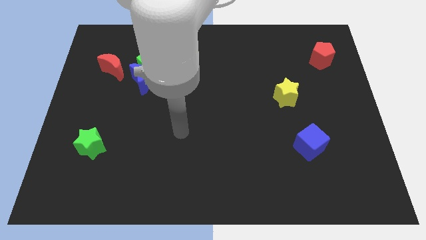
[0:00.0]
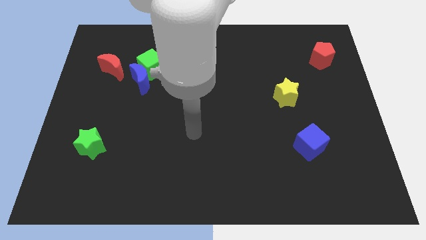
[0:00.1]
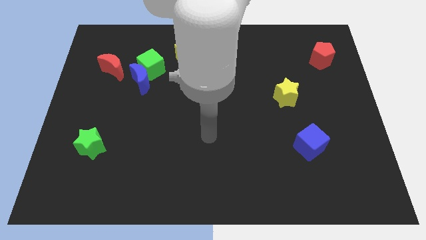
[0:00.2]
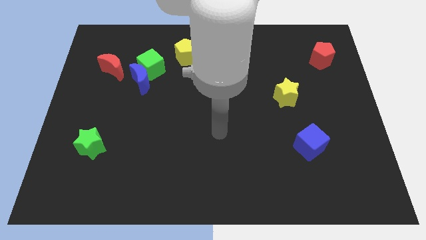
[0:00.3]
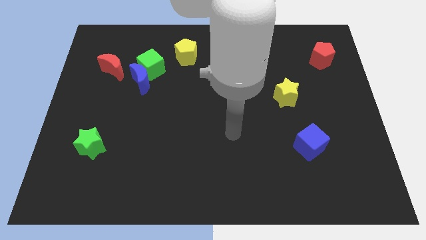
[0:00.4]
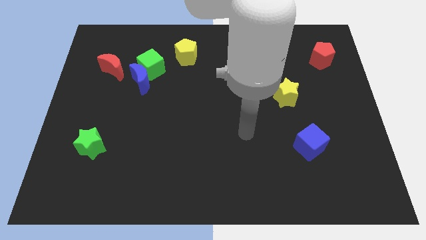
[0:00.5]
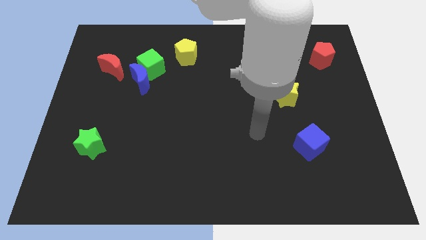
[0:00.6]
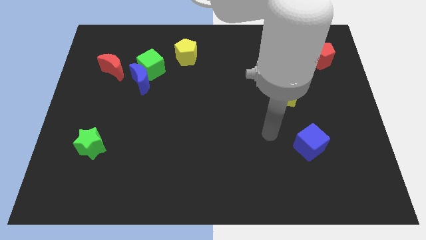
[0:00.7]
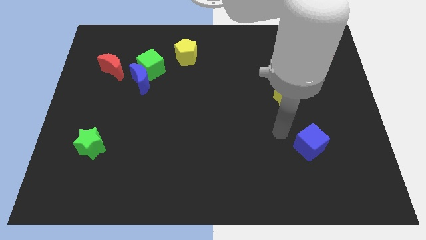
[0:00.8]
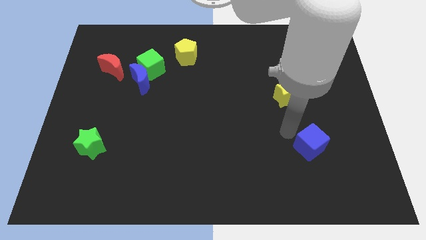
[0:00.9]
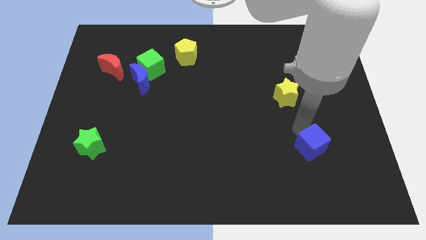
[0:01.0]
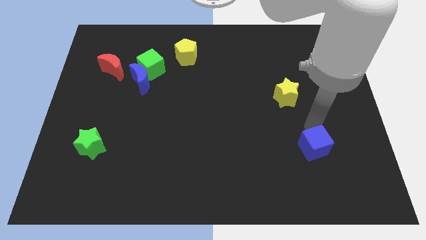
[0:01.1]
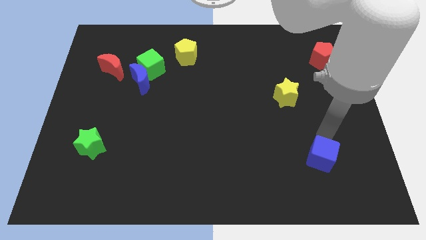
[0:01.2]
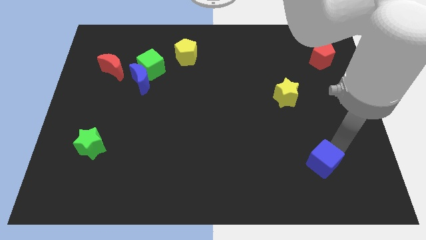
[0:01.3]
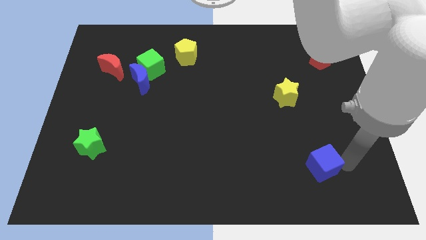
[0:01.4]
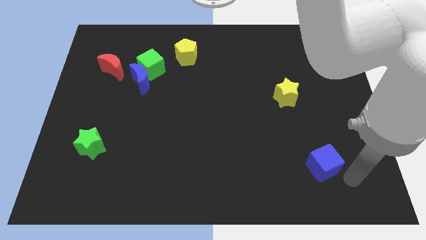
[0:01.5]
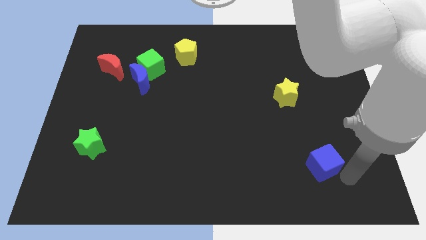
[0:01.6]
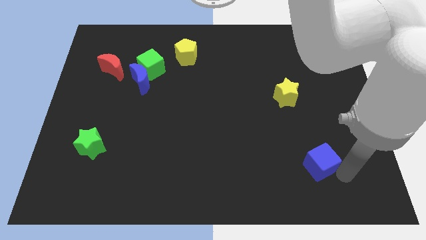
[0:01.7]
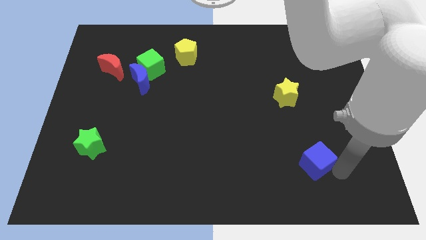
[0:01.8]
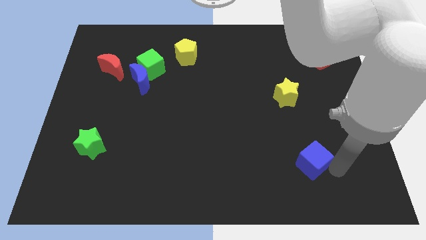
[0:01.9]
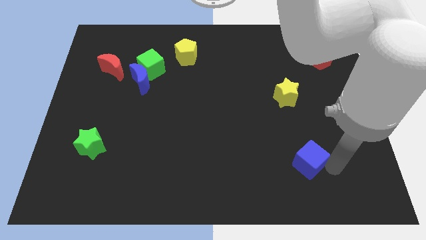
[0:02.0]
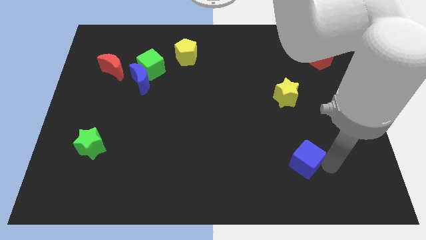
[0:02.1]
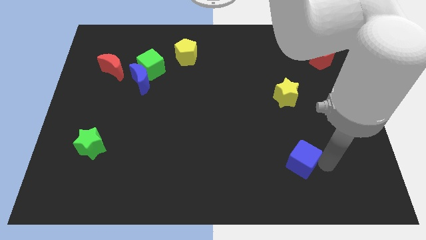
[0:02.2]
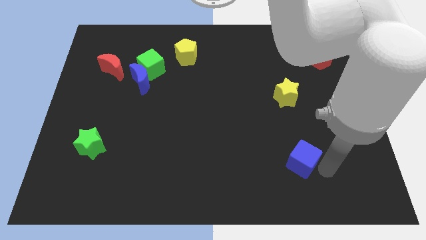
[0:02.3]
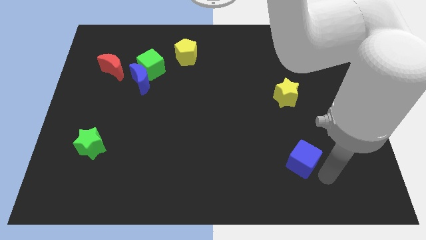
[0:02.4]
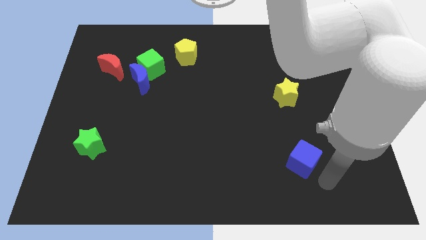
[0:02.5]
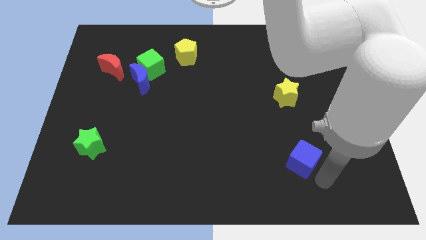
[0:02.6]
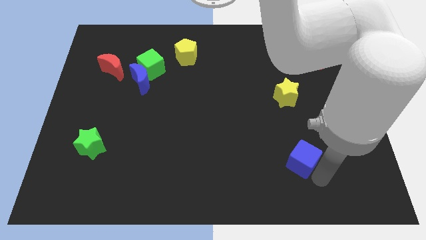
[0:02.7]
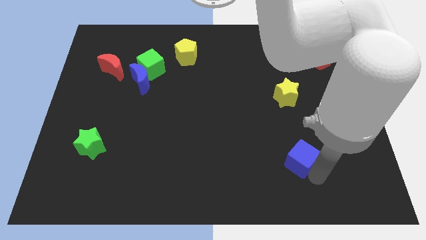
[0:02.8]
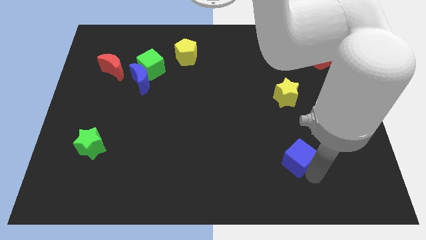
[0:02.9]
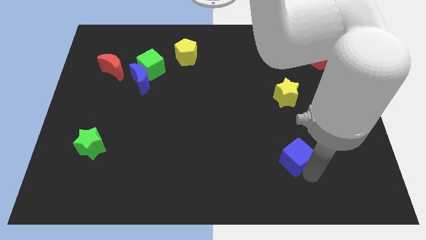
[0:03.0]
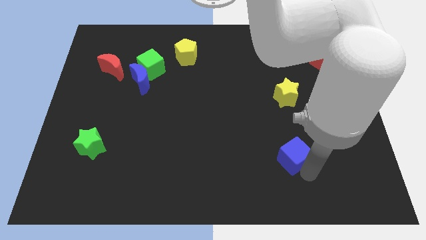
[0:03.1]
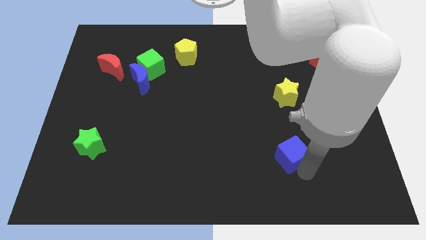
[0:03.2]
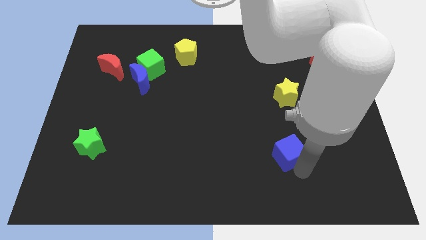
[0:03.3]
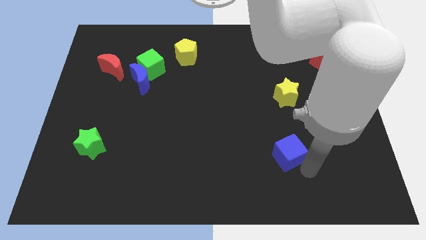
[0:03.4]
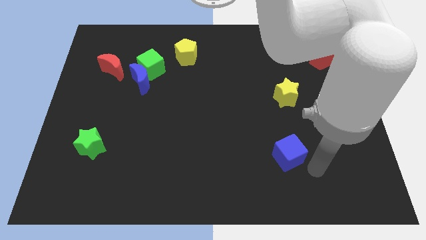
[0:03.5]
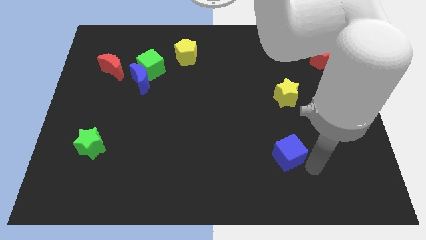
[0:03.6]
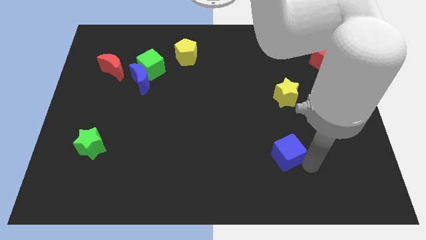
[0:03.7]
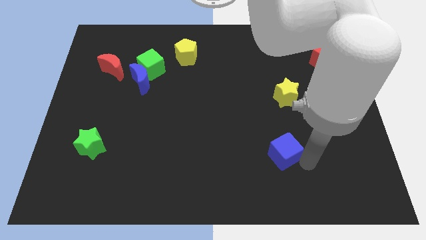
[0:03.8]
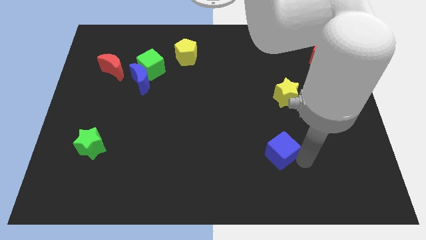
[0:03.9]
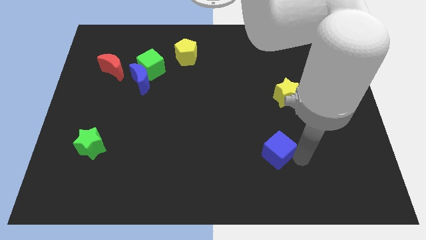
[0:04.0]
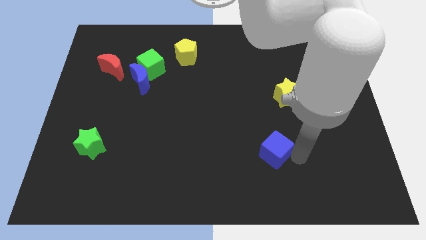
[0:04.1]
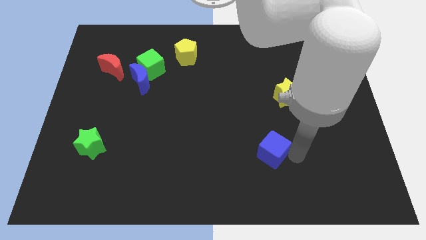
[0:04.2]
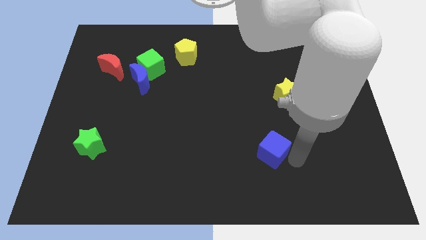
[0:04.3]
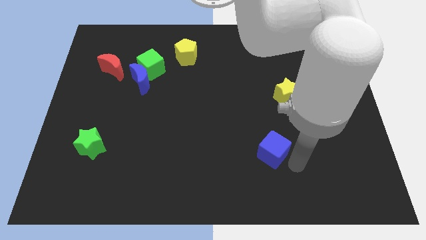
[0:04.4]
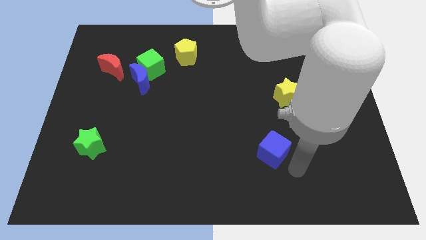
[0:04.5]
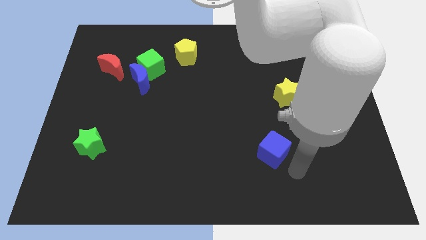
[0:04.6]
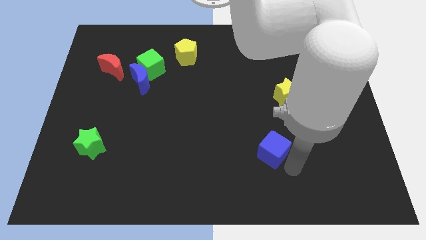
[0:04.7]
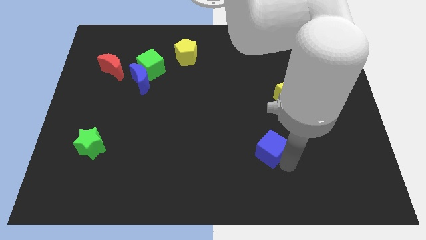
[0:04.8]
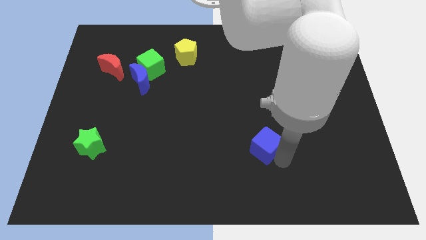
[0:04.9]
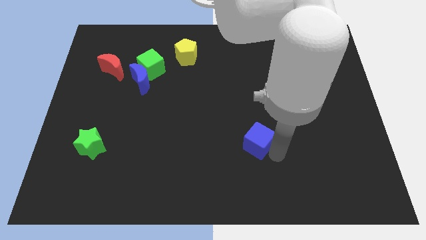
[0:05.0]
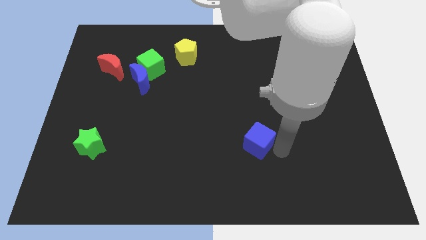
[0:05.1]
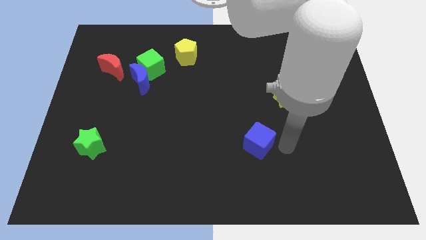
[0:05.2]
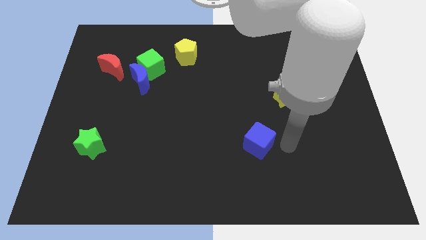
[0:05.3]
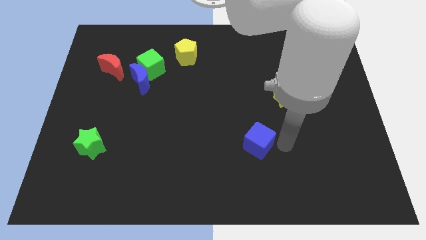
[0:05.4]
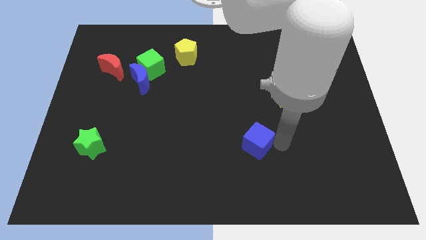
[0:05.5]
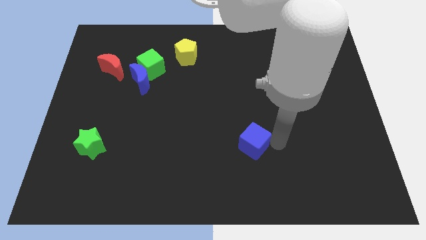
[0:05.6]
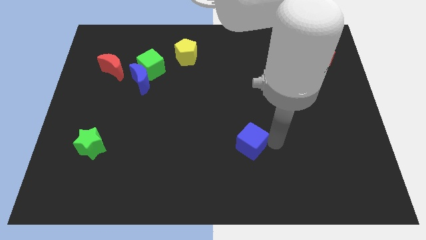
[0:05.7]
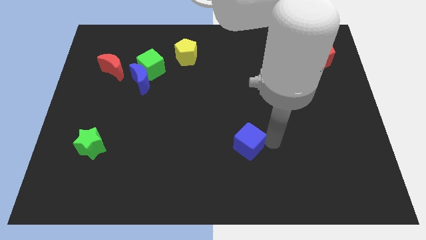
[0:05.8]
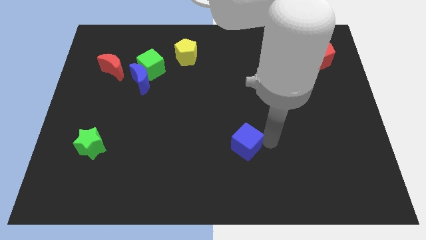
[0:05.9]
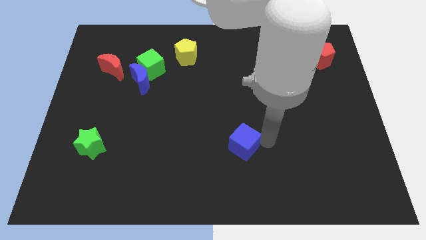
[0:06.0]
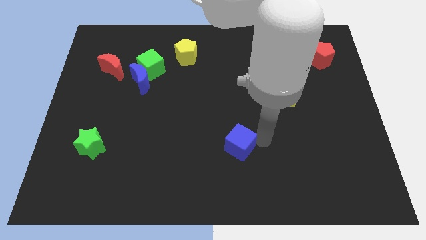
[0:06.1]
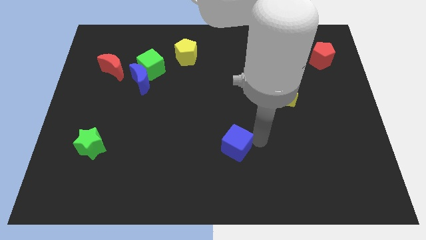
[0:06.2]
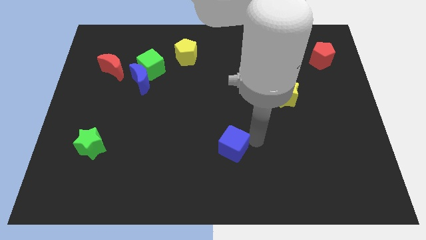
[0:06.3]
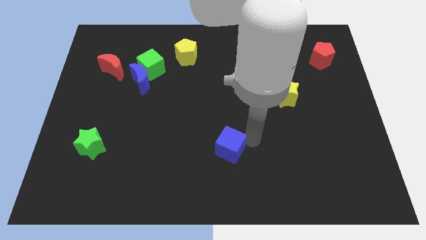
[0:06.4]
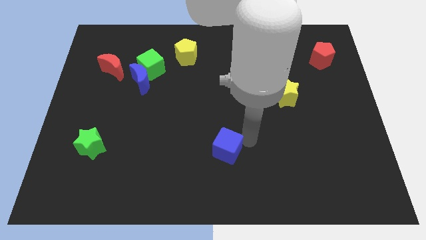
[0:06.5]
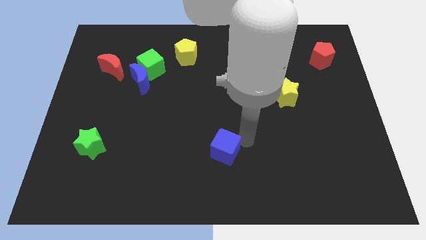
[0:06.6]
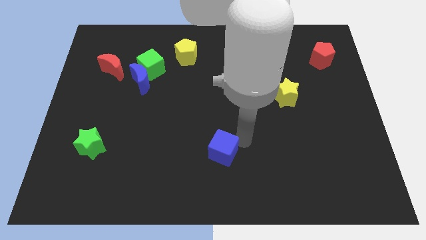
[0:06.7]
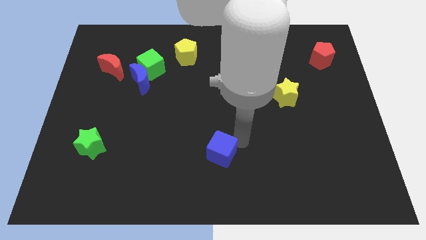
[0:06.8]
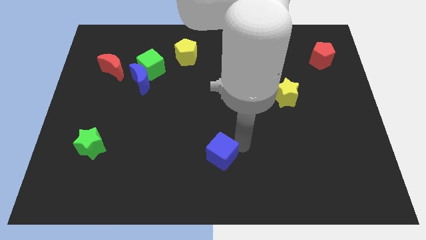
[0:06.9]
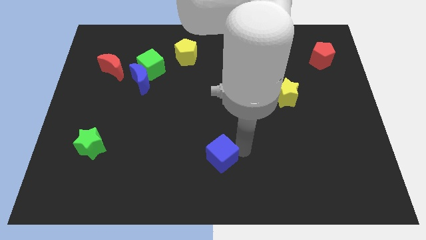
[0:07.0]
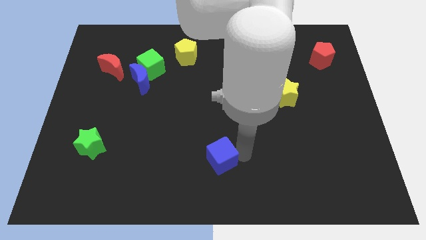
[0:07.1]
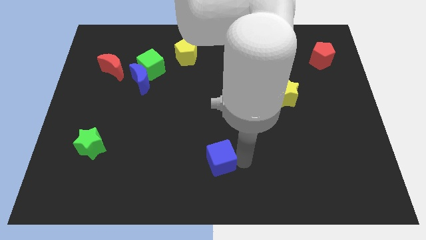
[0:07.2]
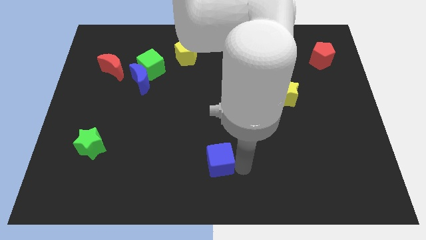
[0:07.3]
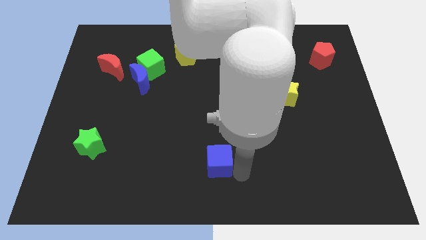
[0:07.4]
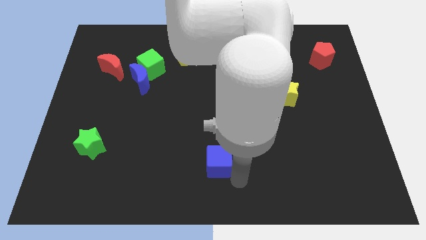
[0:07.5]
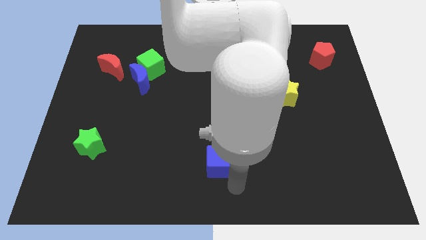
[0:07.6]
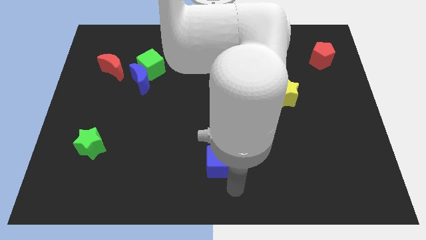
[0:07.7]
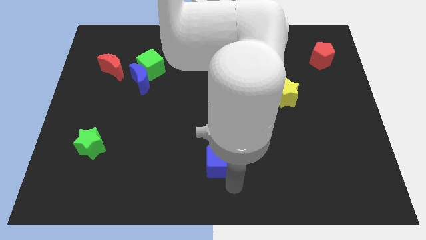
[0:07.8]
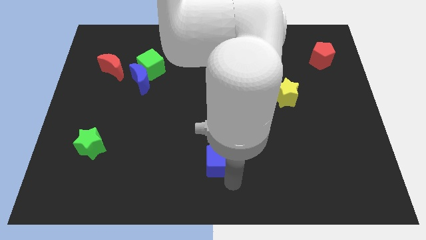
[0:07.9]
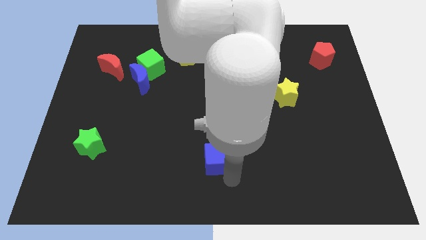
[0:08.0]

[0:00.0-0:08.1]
push the blue cube left
